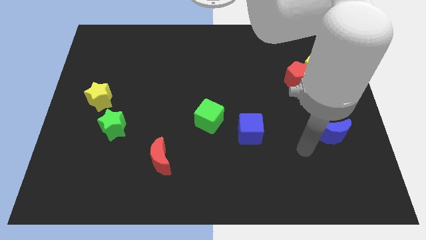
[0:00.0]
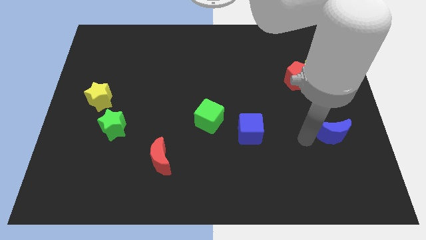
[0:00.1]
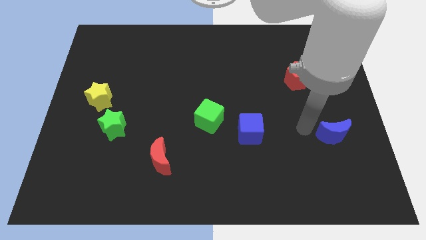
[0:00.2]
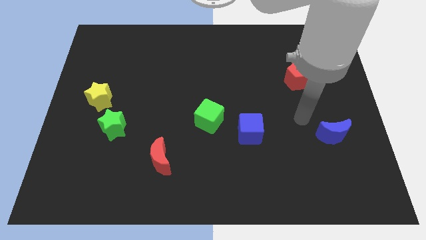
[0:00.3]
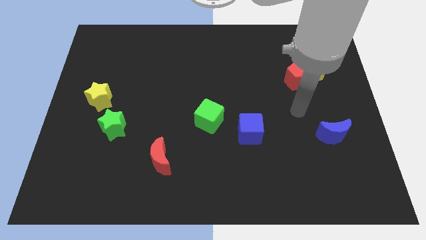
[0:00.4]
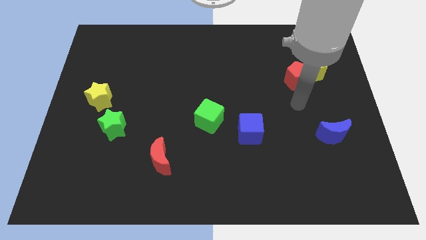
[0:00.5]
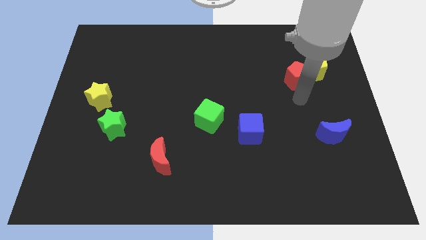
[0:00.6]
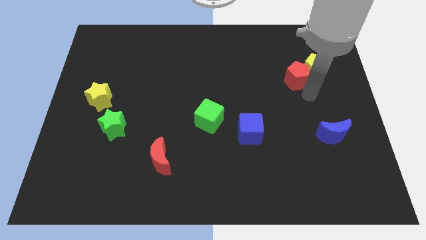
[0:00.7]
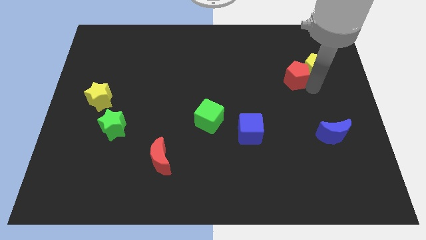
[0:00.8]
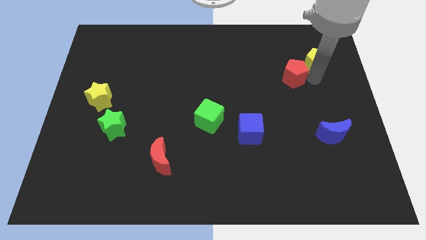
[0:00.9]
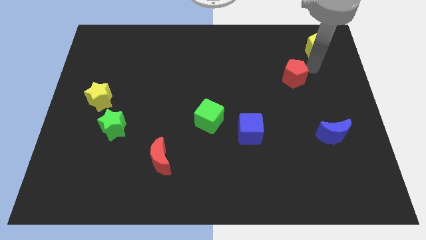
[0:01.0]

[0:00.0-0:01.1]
pull the red pentagon apart from the yellow pentagon

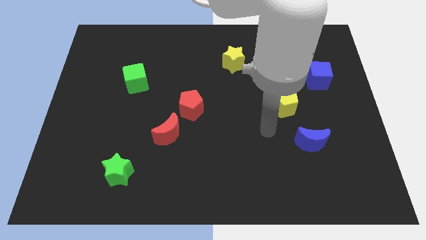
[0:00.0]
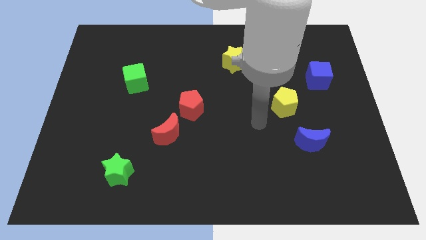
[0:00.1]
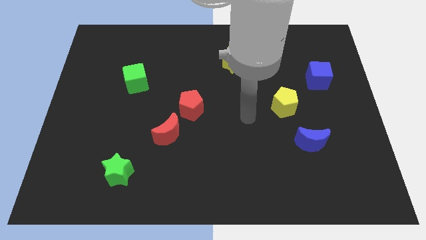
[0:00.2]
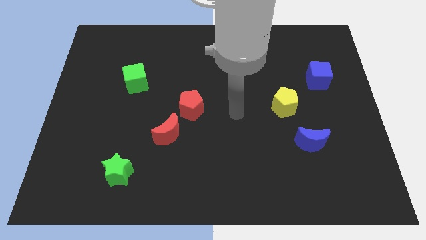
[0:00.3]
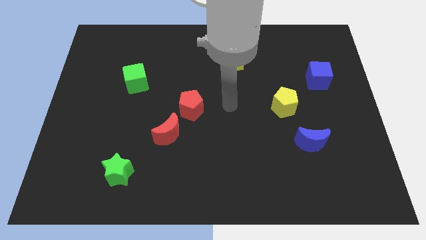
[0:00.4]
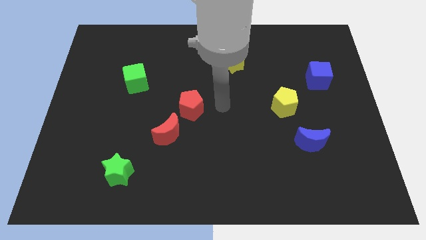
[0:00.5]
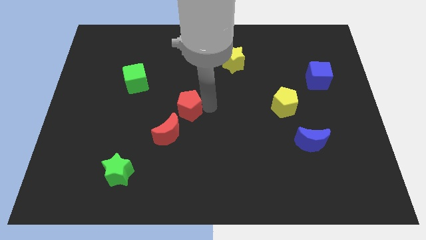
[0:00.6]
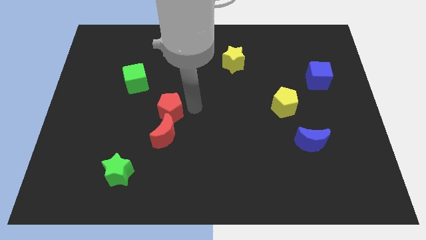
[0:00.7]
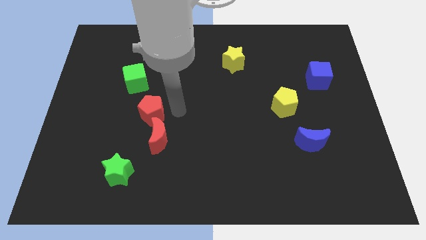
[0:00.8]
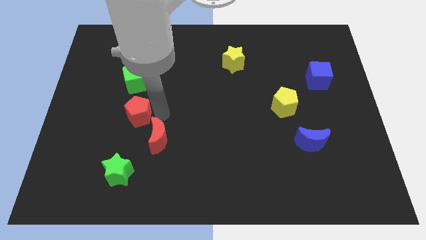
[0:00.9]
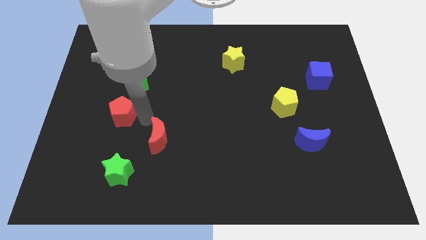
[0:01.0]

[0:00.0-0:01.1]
separate the red moon from the red pentagon

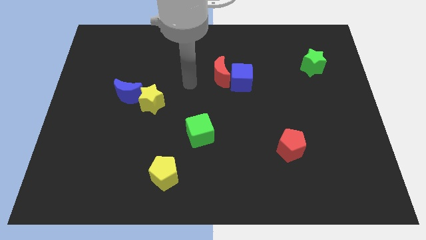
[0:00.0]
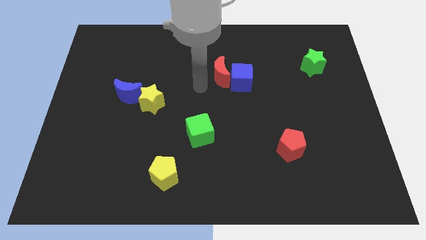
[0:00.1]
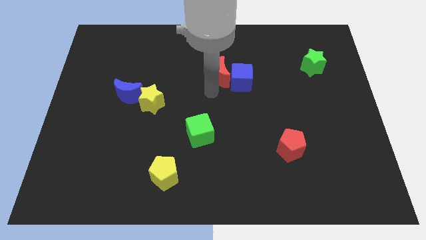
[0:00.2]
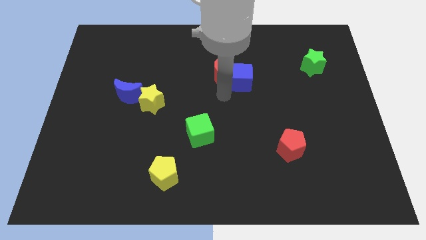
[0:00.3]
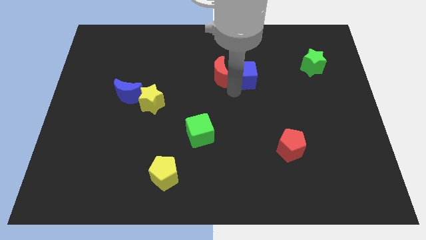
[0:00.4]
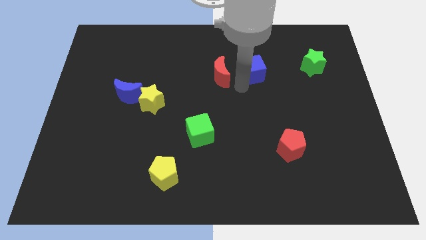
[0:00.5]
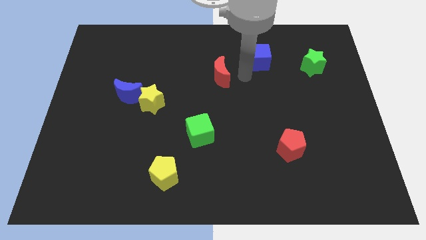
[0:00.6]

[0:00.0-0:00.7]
separate the red moon from the blue cube

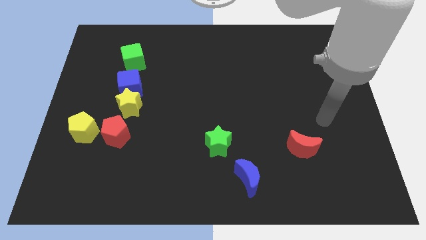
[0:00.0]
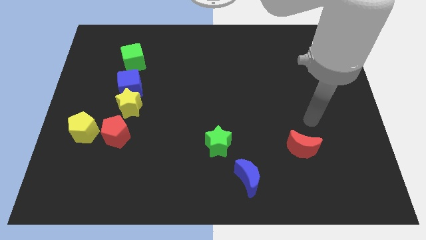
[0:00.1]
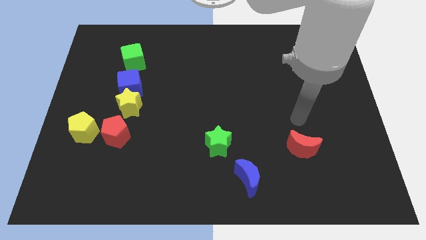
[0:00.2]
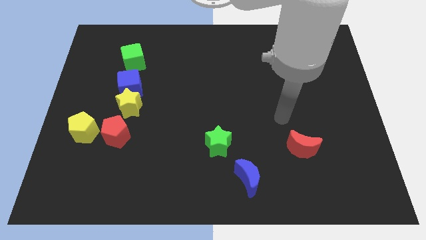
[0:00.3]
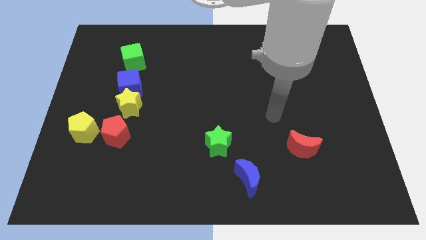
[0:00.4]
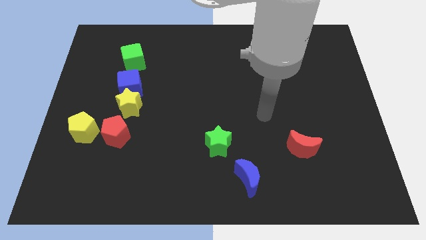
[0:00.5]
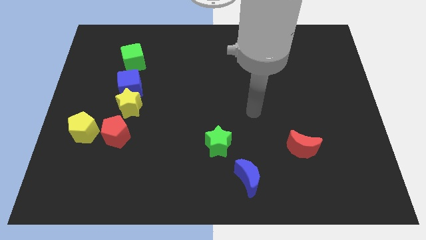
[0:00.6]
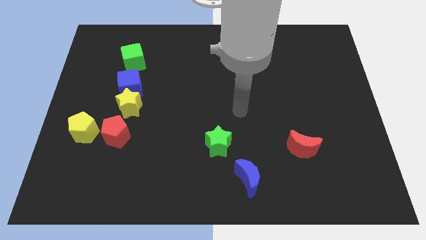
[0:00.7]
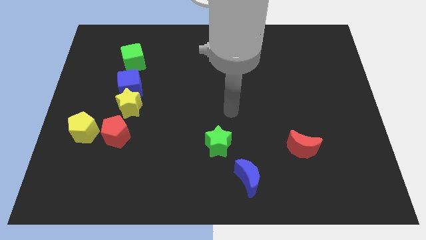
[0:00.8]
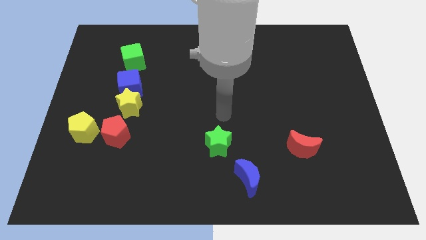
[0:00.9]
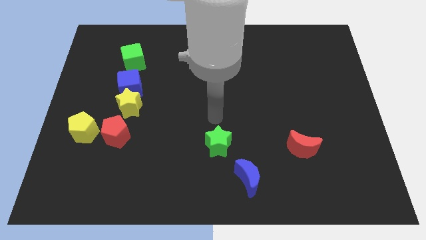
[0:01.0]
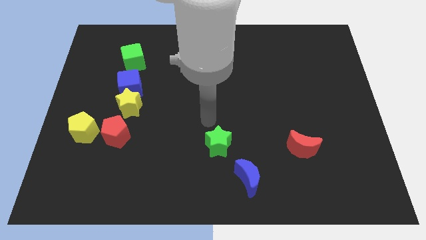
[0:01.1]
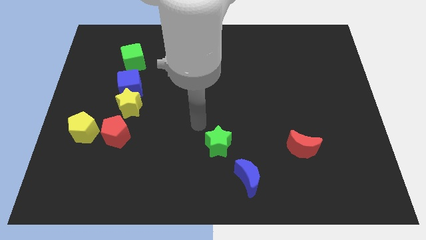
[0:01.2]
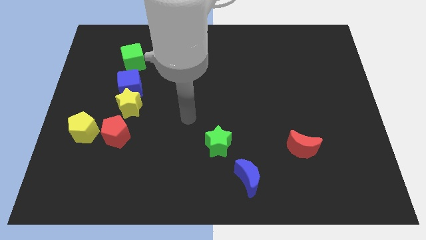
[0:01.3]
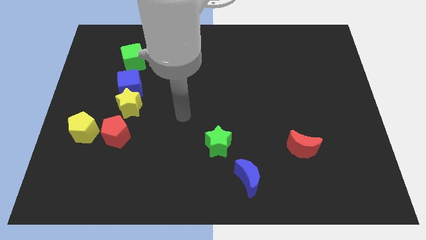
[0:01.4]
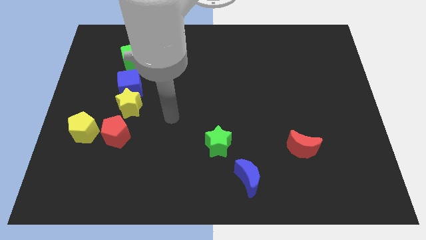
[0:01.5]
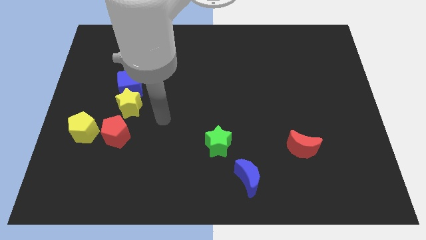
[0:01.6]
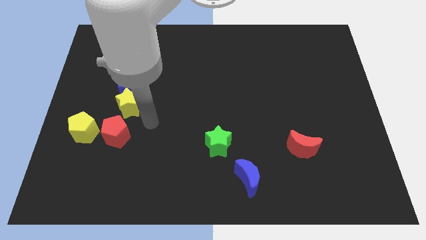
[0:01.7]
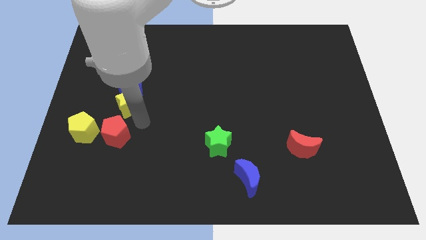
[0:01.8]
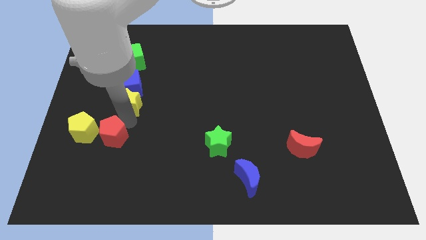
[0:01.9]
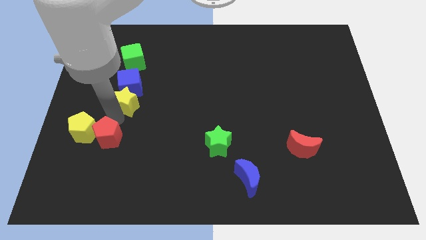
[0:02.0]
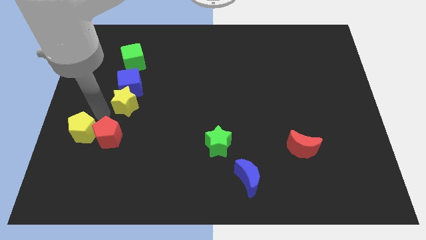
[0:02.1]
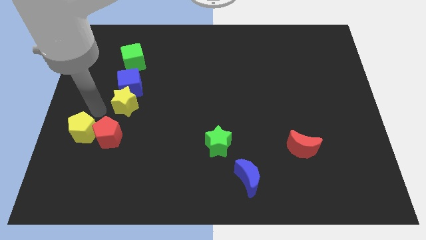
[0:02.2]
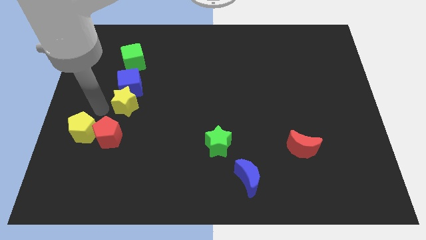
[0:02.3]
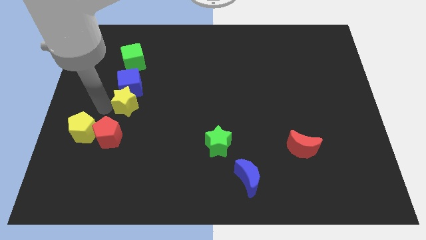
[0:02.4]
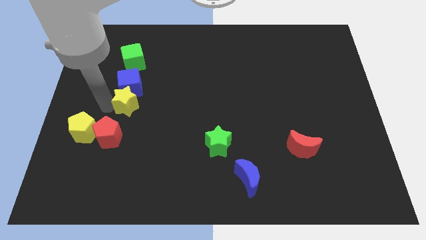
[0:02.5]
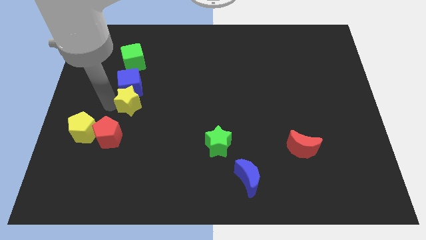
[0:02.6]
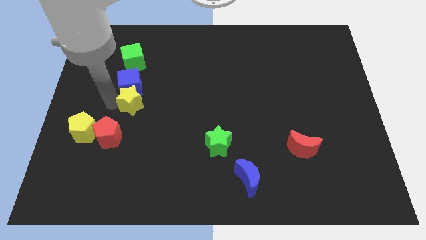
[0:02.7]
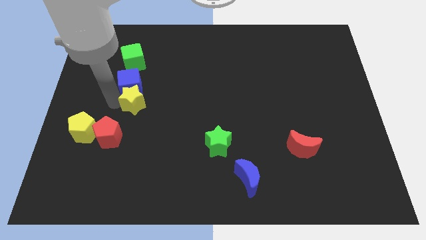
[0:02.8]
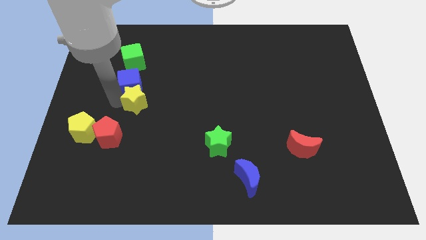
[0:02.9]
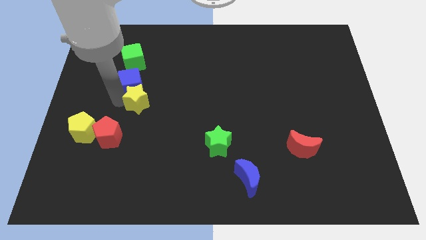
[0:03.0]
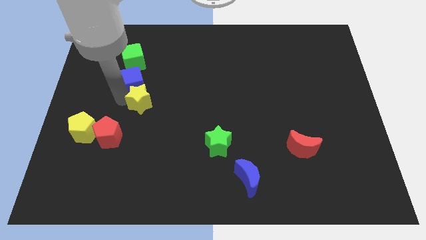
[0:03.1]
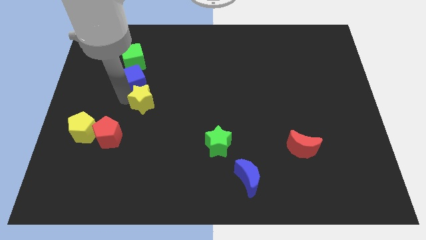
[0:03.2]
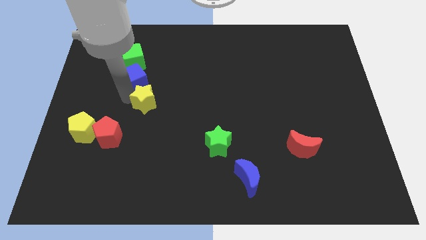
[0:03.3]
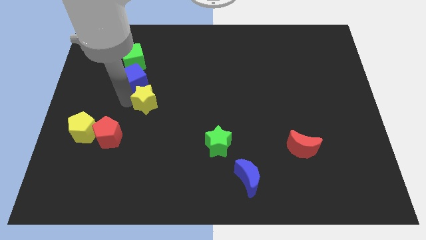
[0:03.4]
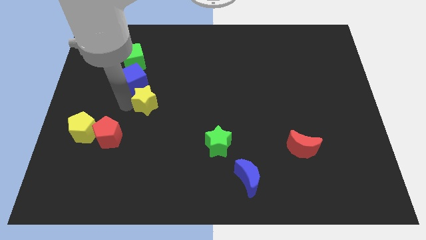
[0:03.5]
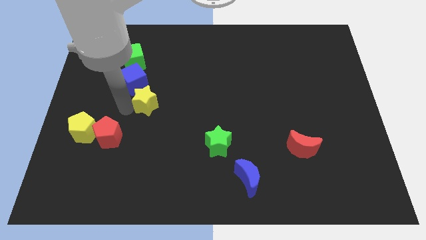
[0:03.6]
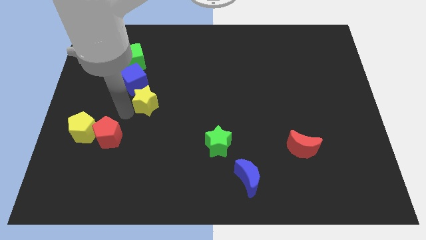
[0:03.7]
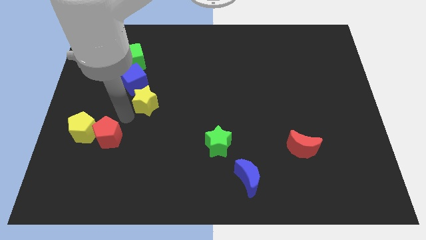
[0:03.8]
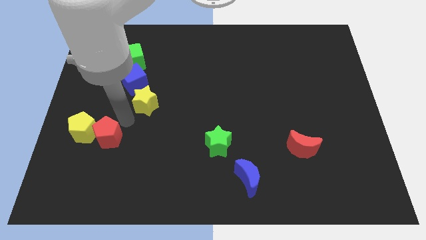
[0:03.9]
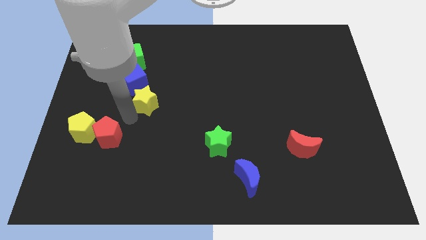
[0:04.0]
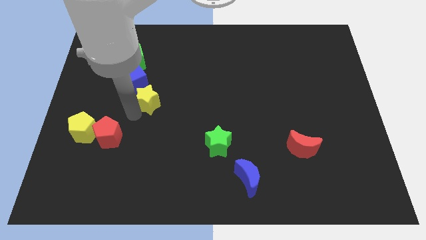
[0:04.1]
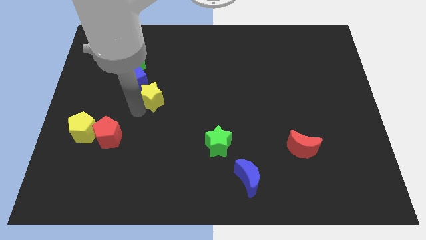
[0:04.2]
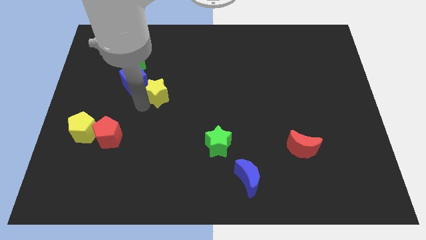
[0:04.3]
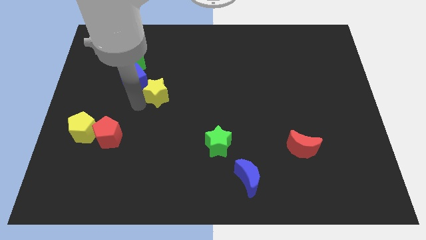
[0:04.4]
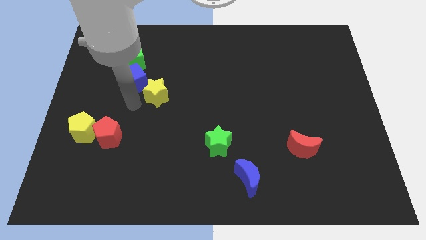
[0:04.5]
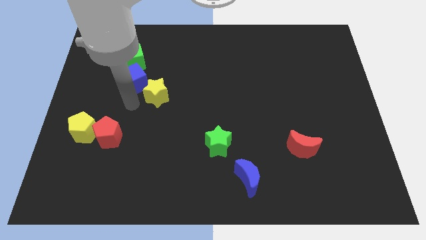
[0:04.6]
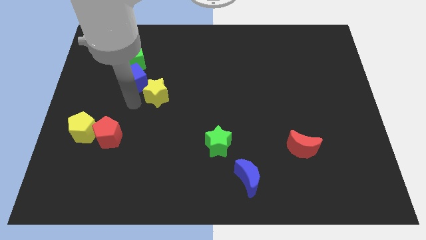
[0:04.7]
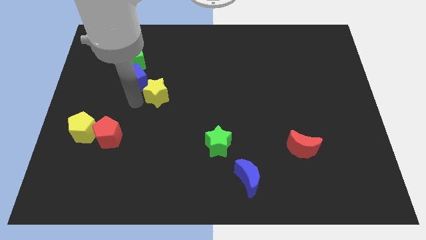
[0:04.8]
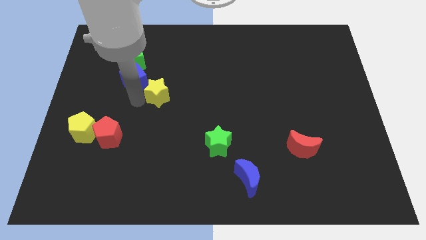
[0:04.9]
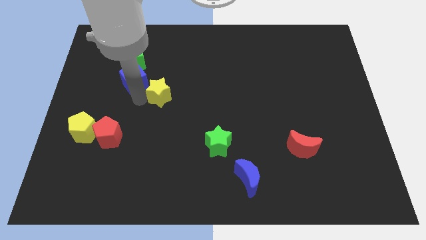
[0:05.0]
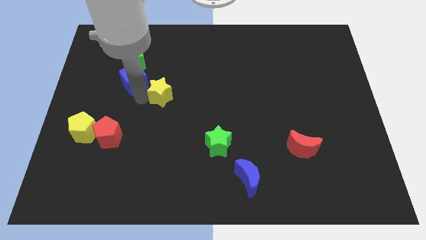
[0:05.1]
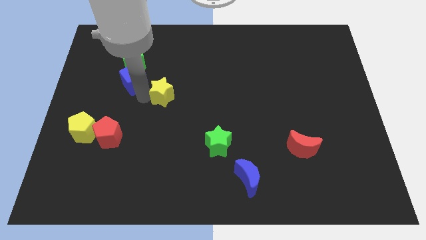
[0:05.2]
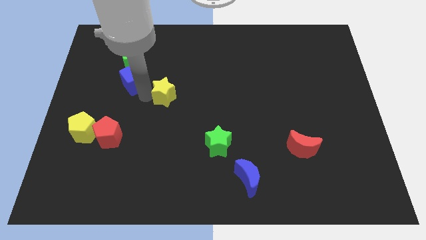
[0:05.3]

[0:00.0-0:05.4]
pull the yellow star apart from the blue cube and red pentagon

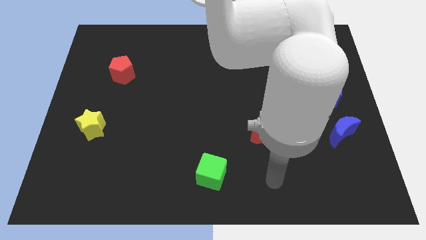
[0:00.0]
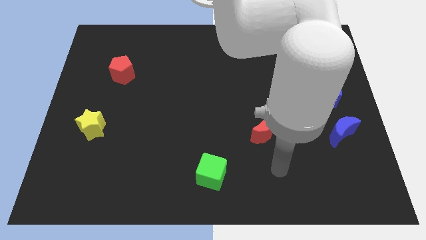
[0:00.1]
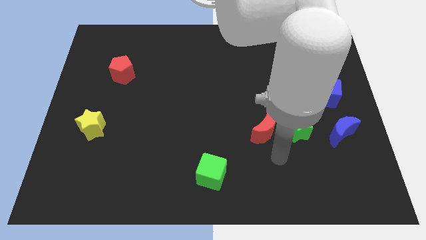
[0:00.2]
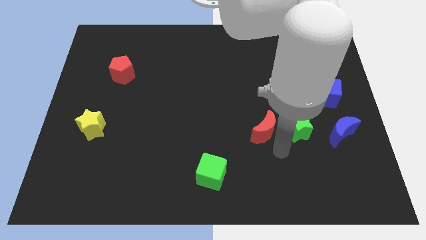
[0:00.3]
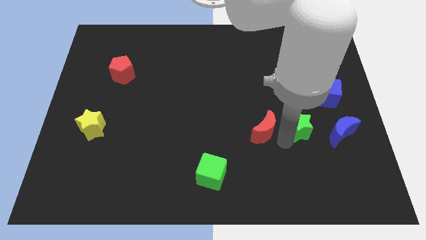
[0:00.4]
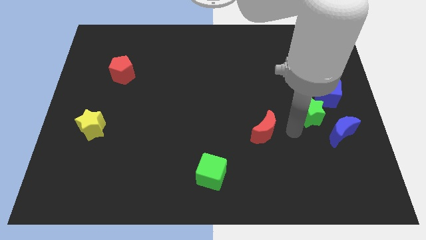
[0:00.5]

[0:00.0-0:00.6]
move the red moon away from the green star

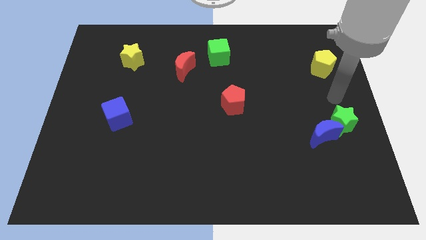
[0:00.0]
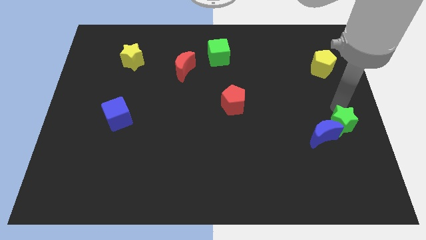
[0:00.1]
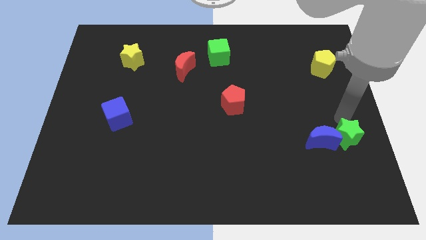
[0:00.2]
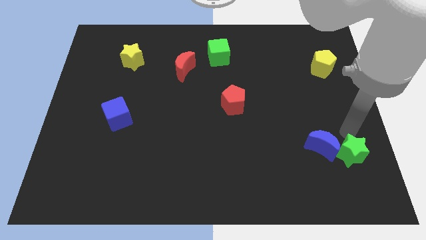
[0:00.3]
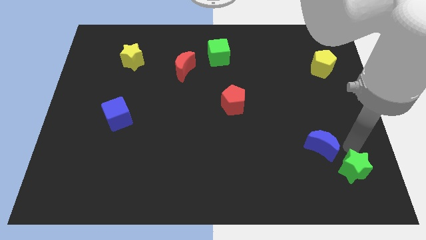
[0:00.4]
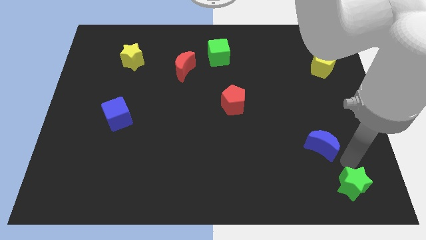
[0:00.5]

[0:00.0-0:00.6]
pull the blue moon apart from the green star
